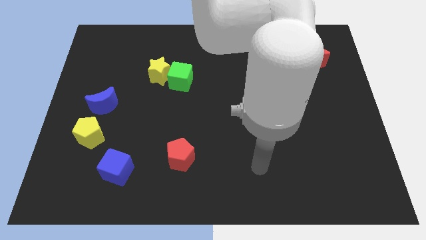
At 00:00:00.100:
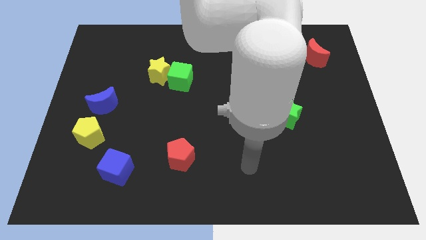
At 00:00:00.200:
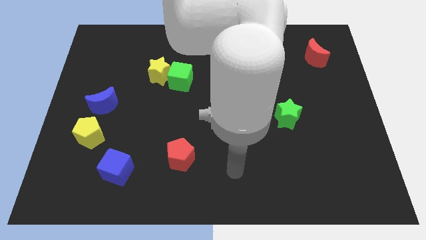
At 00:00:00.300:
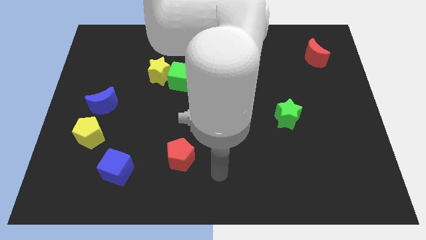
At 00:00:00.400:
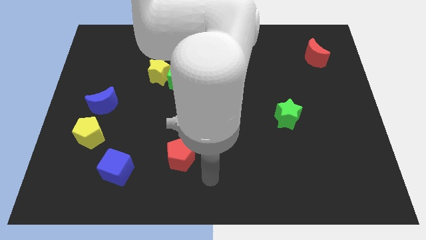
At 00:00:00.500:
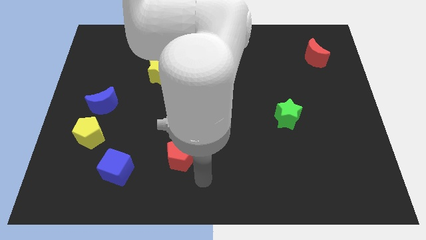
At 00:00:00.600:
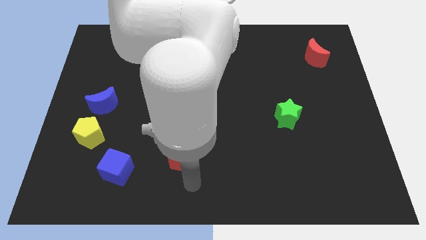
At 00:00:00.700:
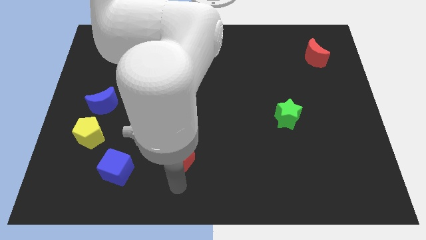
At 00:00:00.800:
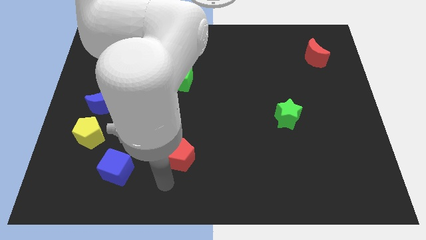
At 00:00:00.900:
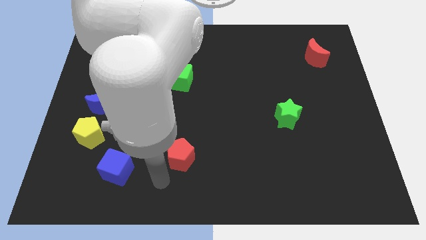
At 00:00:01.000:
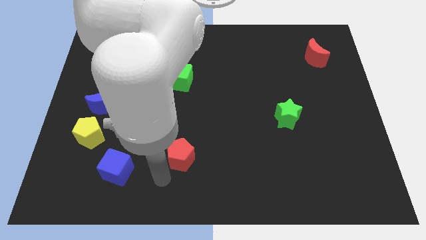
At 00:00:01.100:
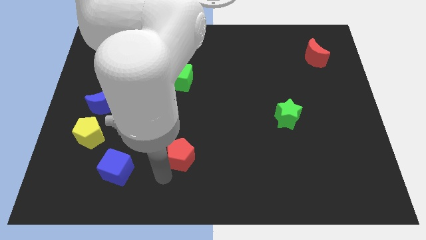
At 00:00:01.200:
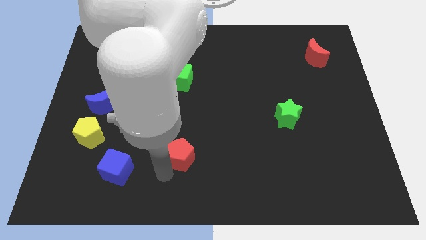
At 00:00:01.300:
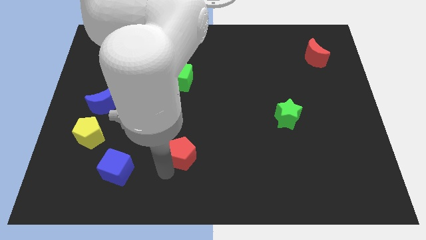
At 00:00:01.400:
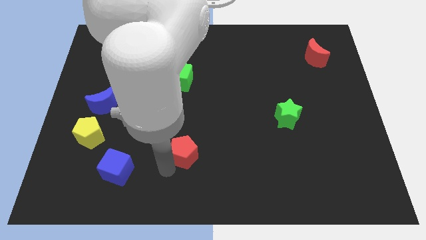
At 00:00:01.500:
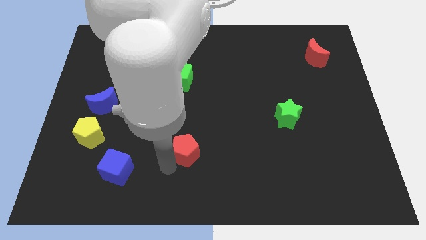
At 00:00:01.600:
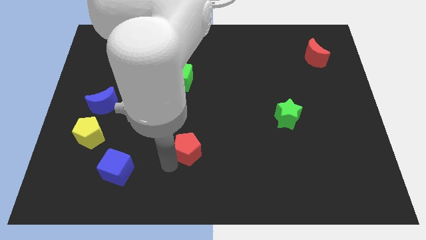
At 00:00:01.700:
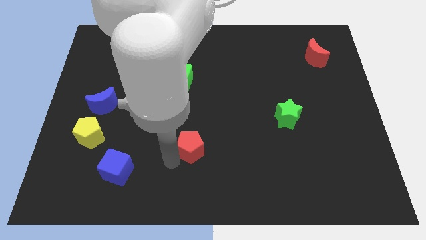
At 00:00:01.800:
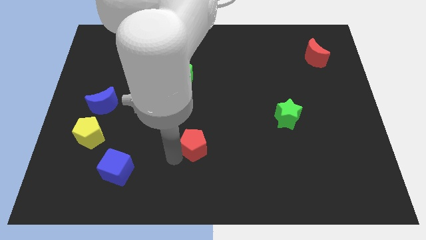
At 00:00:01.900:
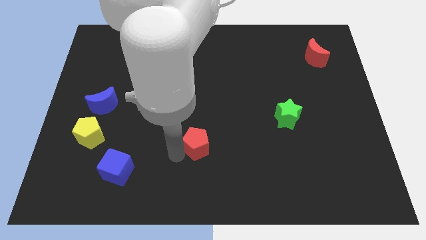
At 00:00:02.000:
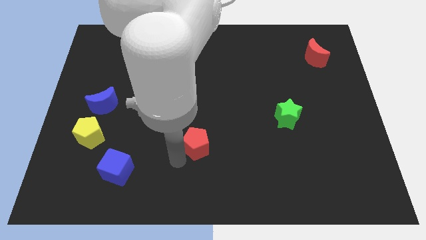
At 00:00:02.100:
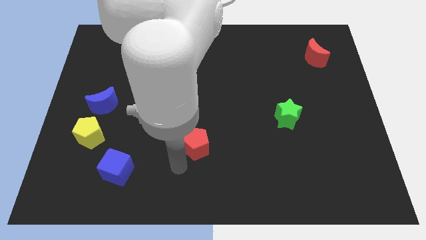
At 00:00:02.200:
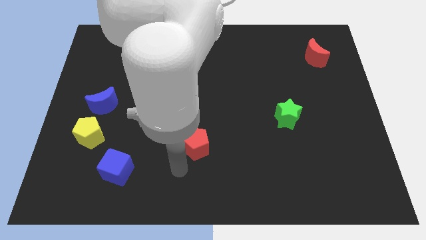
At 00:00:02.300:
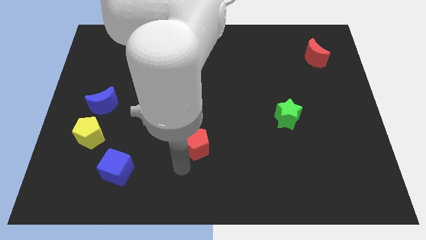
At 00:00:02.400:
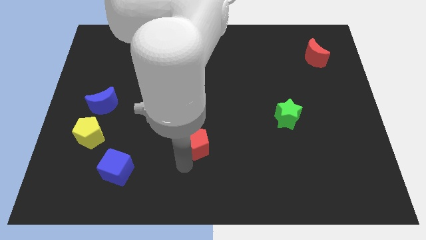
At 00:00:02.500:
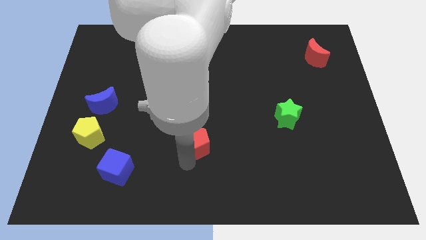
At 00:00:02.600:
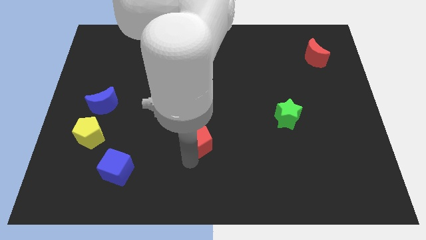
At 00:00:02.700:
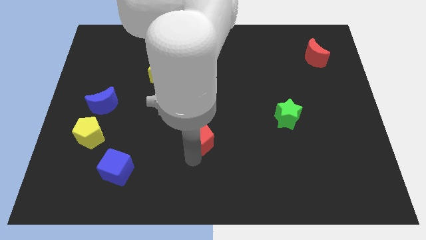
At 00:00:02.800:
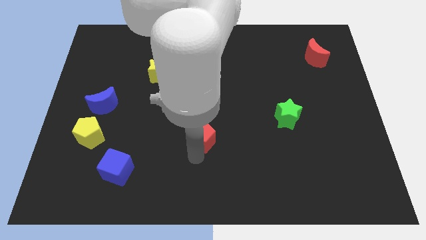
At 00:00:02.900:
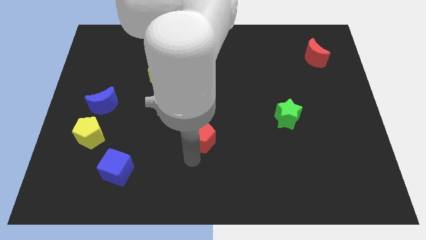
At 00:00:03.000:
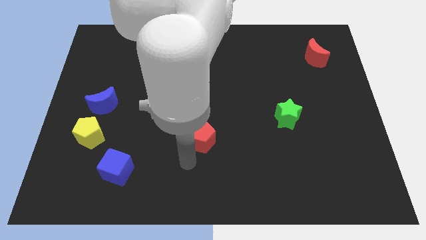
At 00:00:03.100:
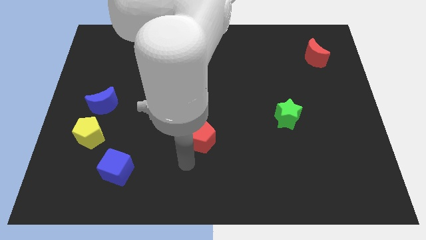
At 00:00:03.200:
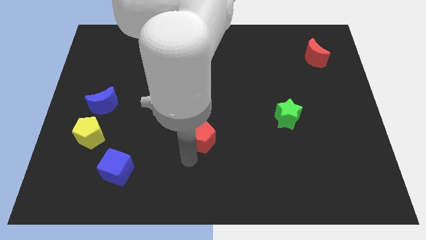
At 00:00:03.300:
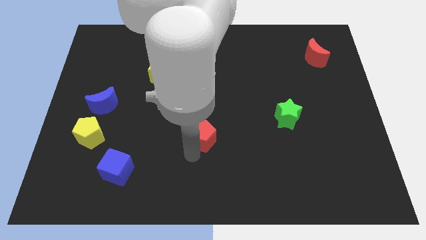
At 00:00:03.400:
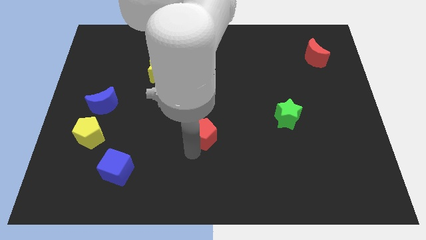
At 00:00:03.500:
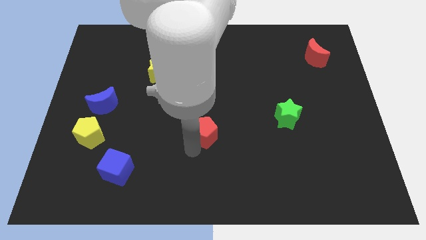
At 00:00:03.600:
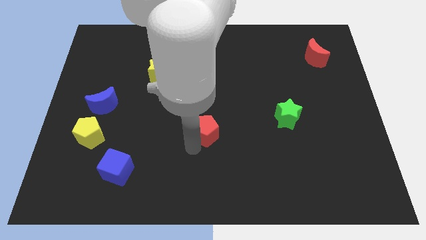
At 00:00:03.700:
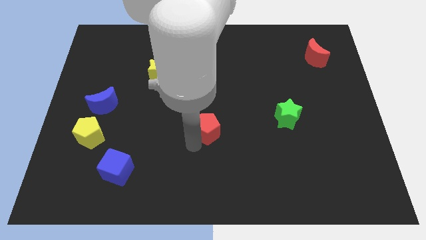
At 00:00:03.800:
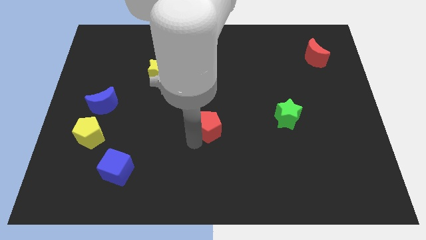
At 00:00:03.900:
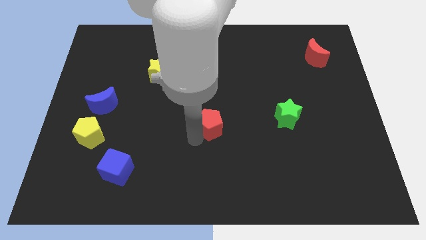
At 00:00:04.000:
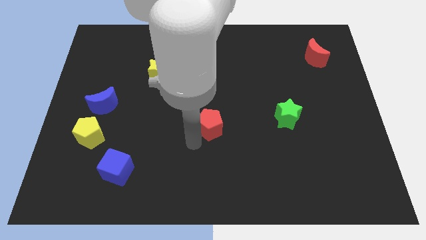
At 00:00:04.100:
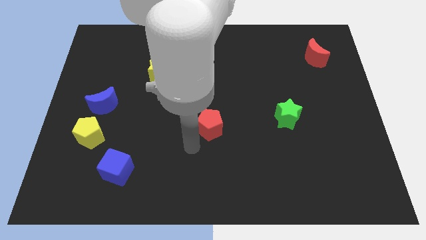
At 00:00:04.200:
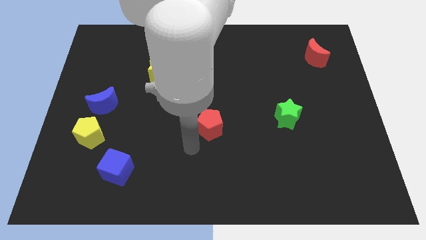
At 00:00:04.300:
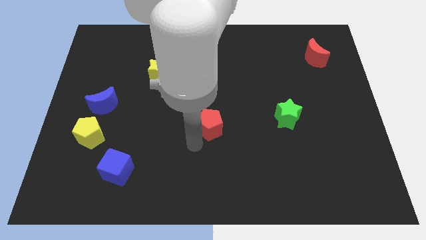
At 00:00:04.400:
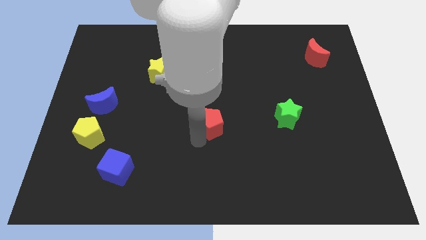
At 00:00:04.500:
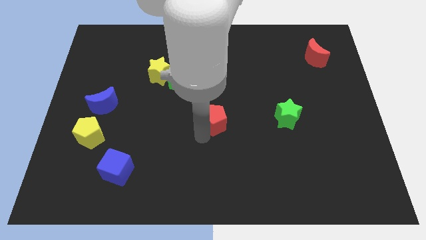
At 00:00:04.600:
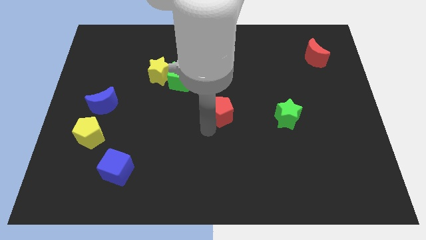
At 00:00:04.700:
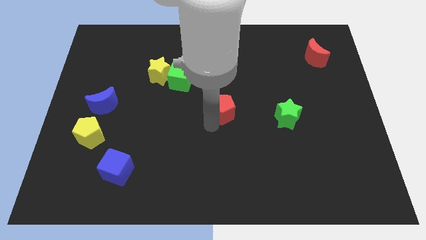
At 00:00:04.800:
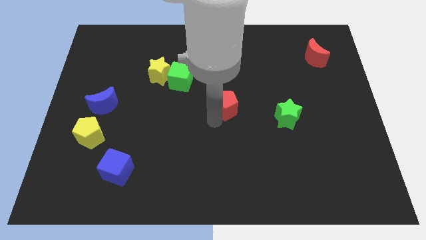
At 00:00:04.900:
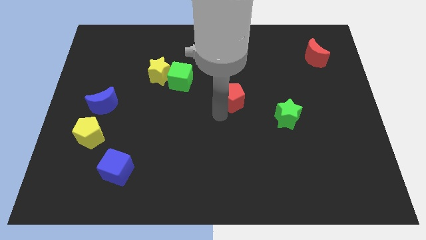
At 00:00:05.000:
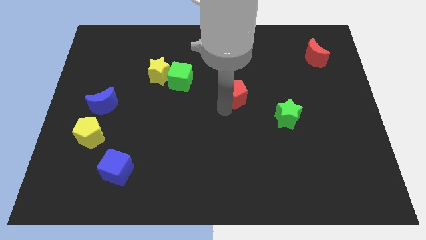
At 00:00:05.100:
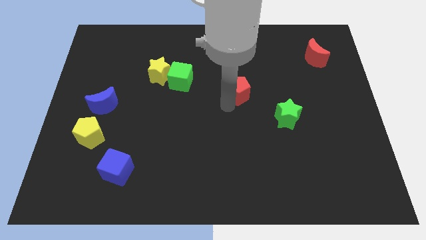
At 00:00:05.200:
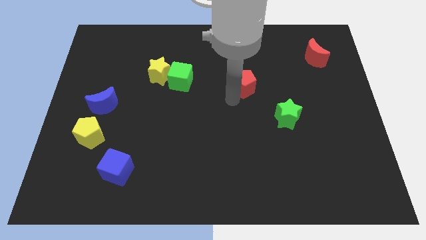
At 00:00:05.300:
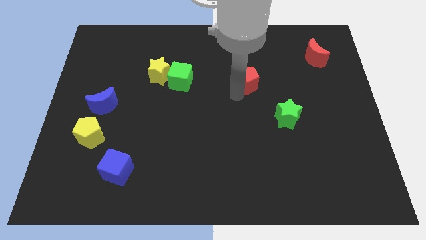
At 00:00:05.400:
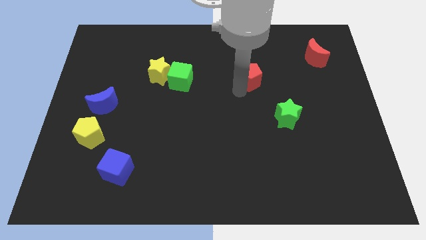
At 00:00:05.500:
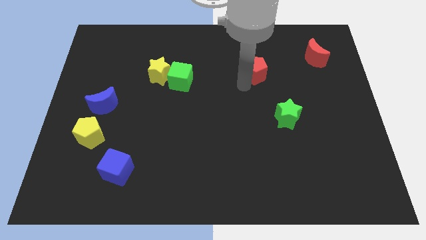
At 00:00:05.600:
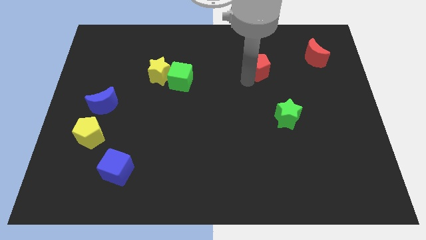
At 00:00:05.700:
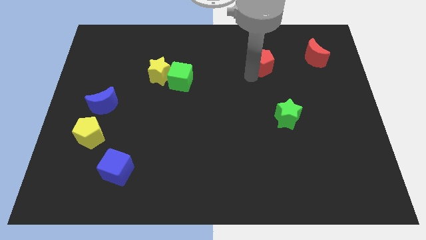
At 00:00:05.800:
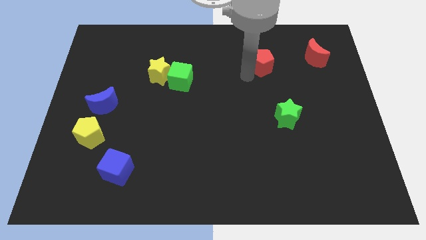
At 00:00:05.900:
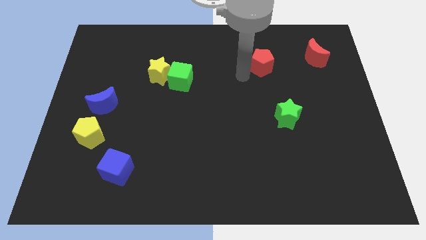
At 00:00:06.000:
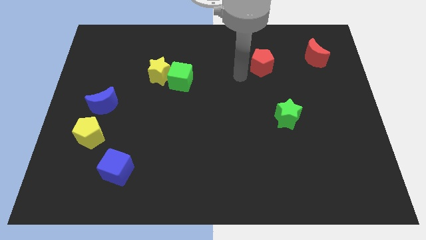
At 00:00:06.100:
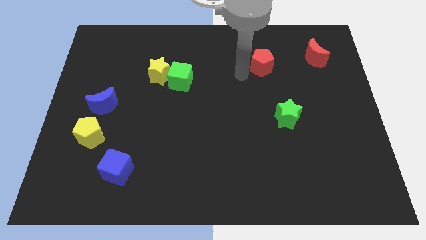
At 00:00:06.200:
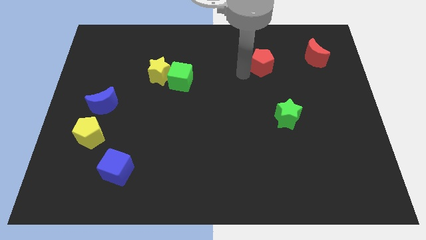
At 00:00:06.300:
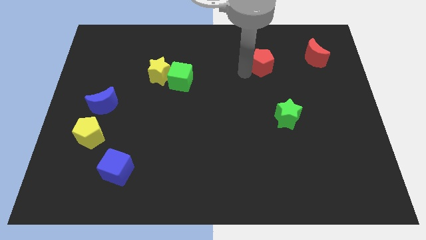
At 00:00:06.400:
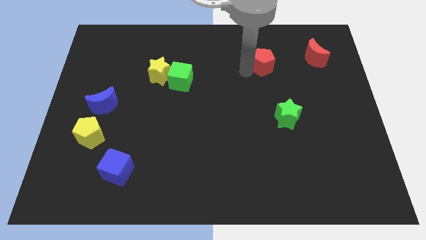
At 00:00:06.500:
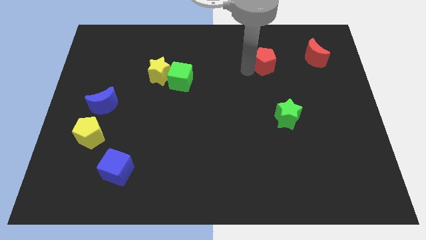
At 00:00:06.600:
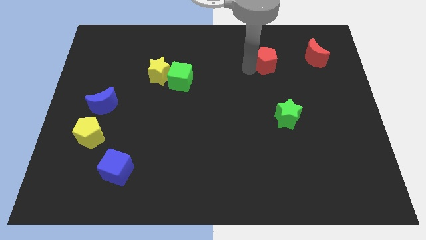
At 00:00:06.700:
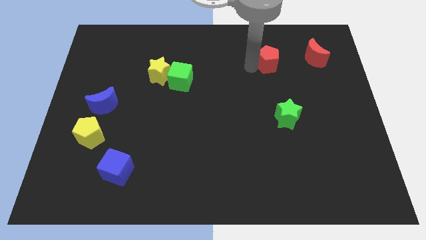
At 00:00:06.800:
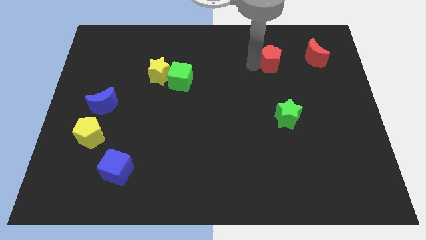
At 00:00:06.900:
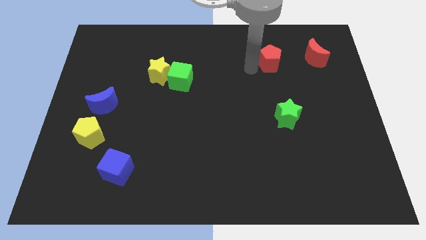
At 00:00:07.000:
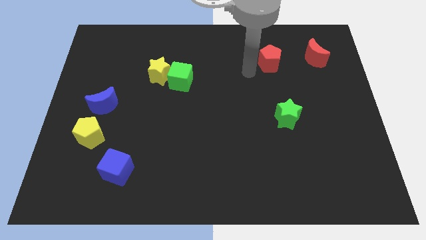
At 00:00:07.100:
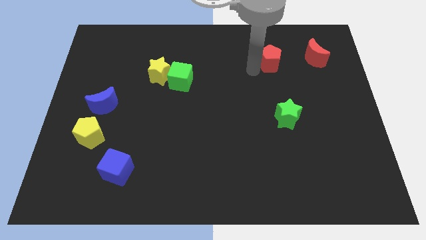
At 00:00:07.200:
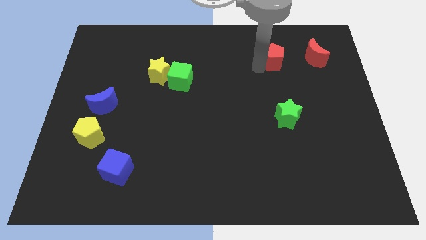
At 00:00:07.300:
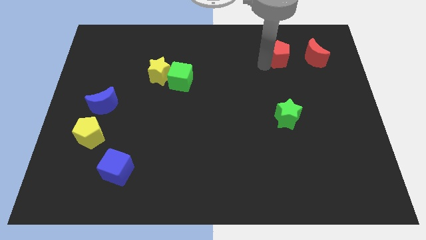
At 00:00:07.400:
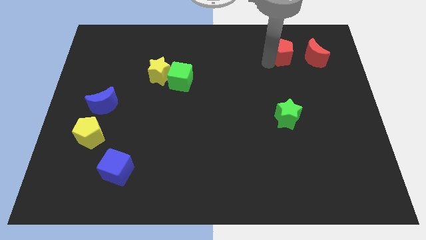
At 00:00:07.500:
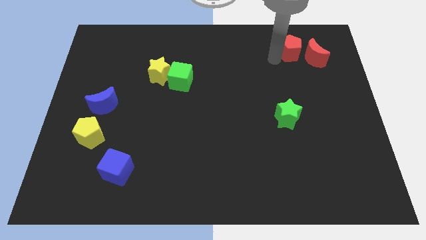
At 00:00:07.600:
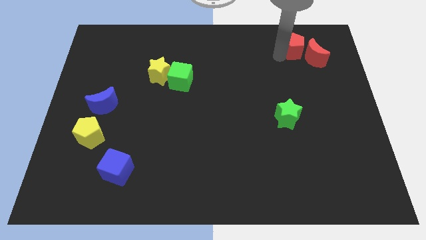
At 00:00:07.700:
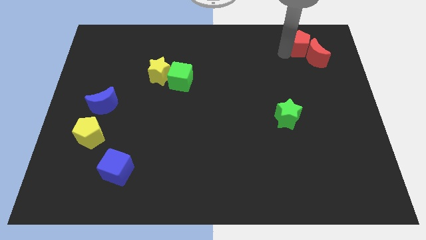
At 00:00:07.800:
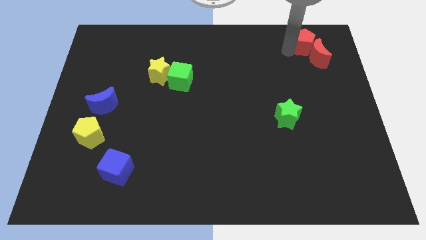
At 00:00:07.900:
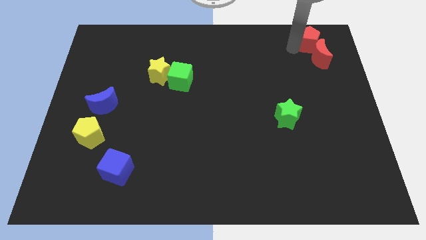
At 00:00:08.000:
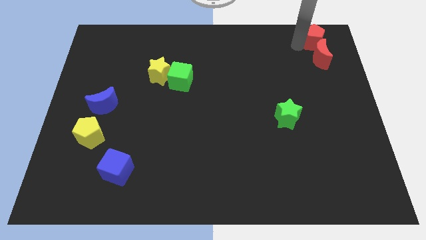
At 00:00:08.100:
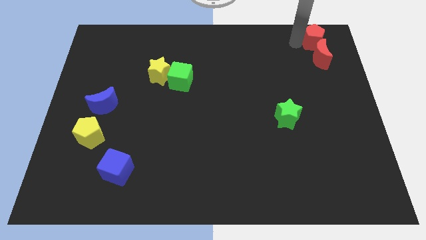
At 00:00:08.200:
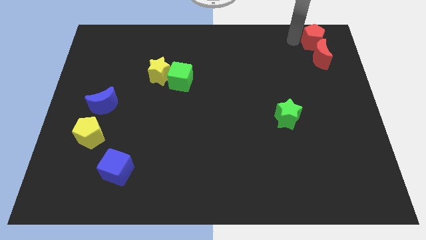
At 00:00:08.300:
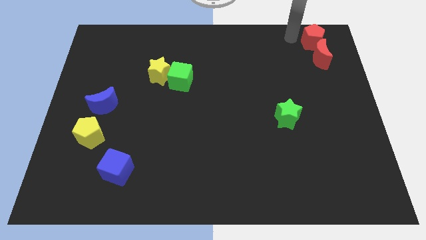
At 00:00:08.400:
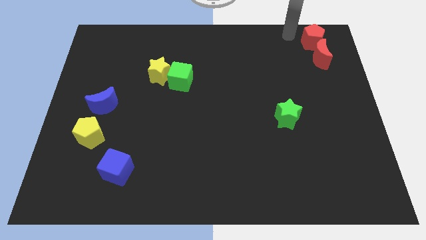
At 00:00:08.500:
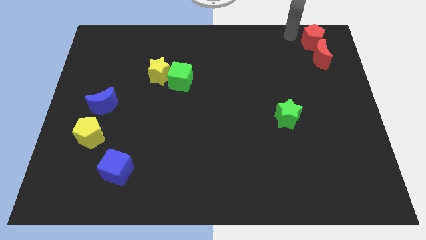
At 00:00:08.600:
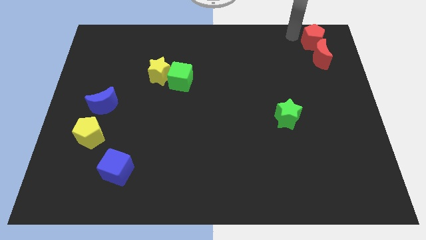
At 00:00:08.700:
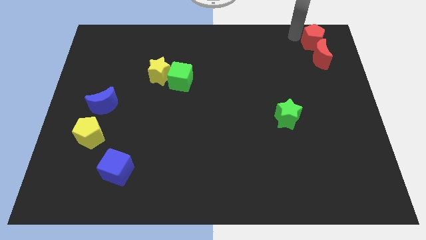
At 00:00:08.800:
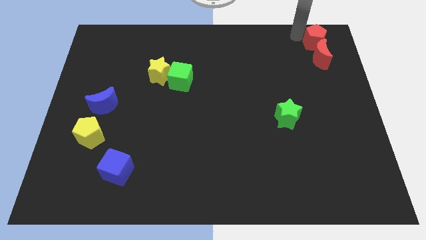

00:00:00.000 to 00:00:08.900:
move the red pentagon to the upper right corner
